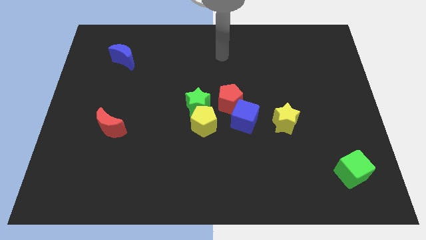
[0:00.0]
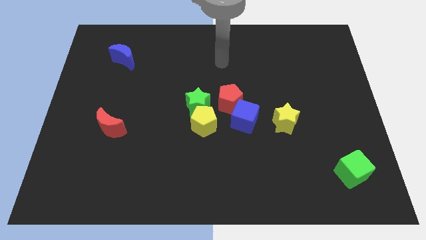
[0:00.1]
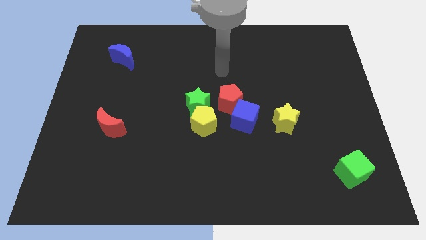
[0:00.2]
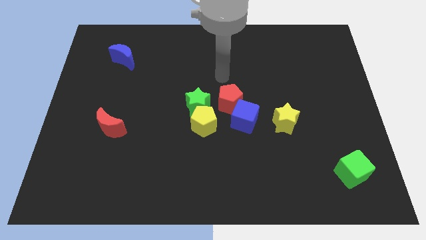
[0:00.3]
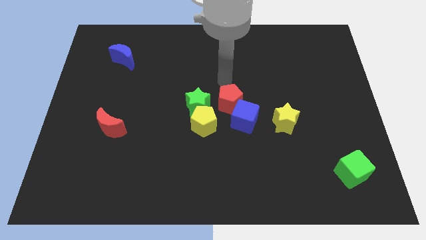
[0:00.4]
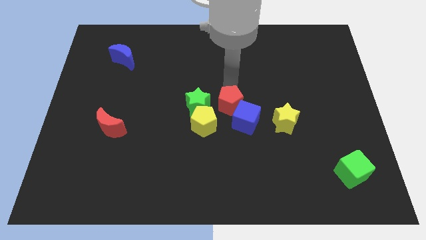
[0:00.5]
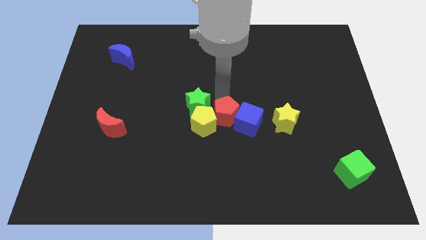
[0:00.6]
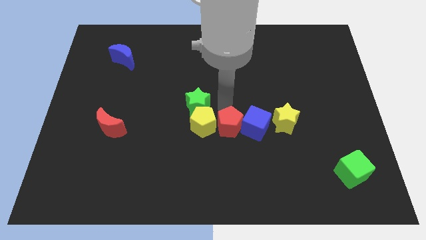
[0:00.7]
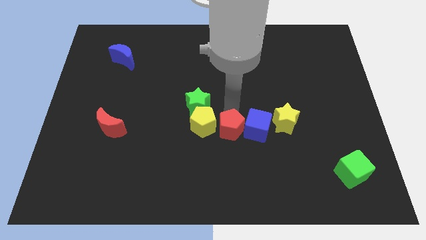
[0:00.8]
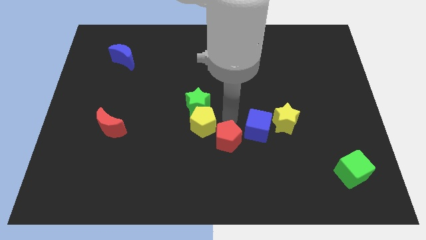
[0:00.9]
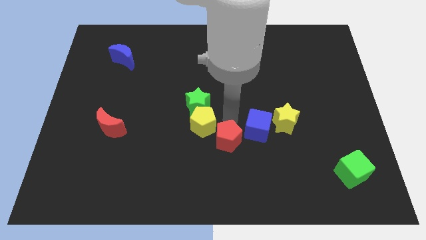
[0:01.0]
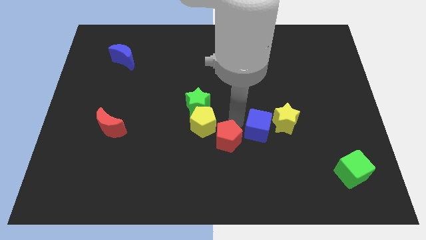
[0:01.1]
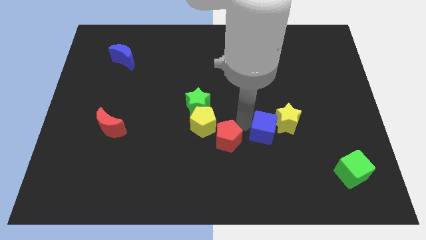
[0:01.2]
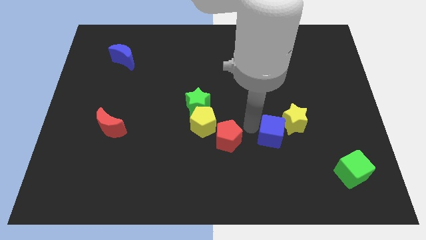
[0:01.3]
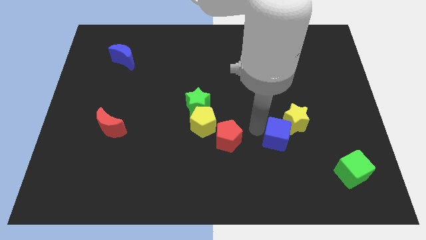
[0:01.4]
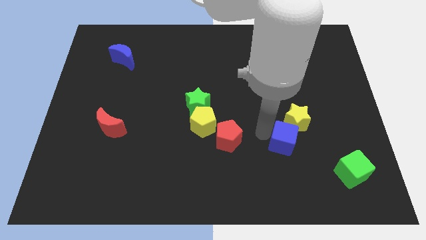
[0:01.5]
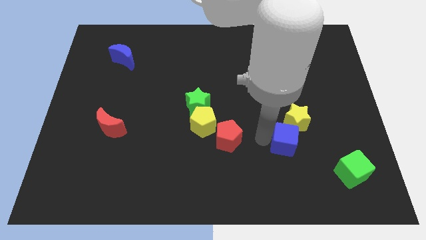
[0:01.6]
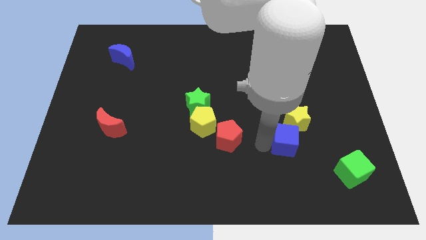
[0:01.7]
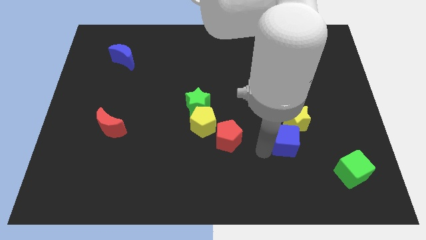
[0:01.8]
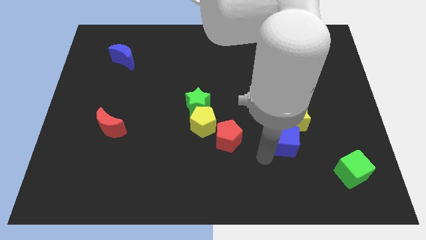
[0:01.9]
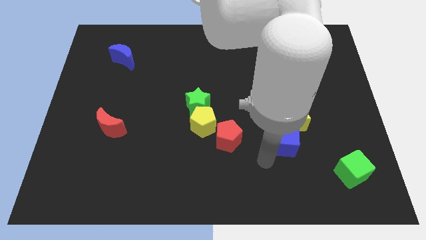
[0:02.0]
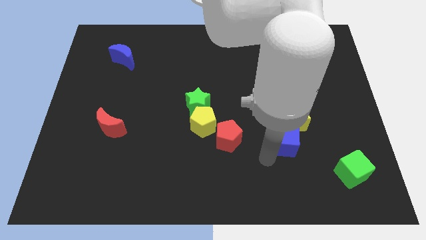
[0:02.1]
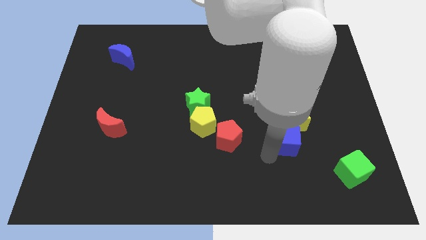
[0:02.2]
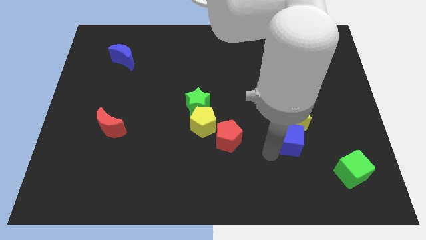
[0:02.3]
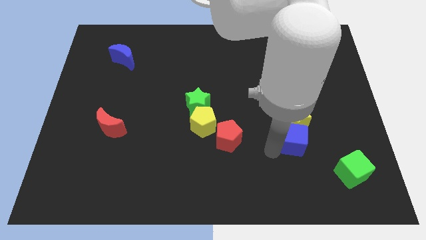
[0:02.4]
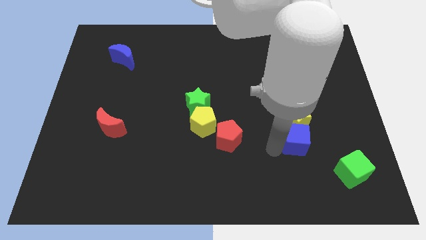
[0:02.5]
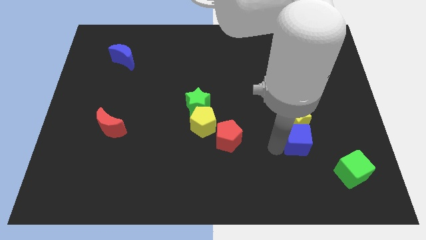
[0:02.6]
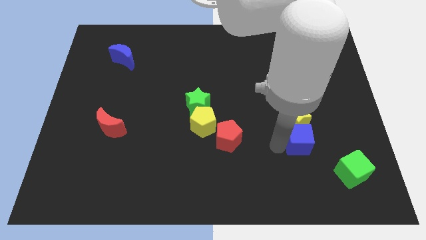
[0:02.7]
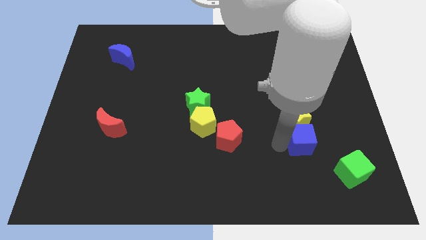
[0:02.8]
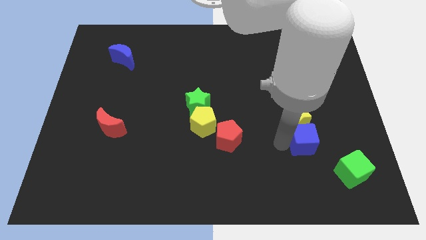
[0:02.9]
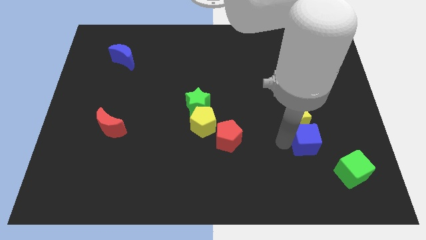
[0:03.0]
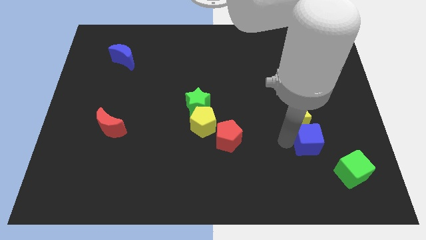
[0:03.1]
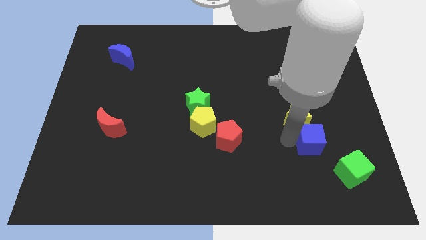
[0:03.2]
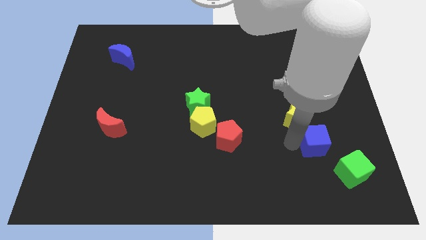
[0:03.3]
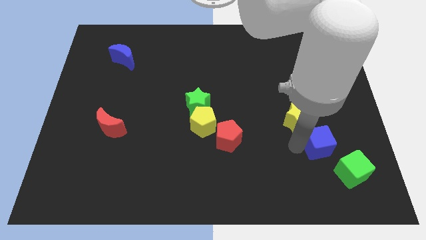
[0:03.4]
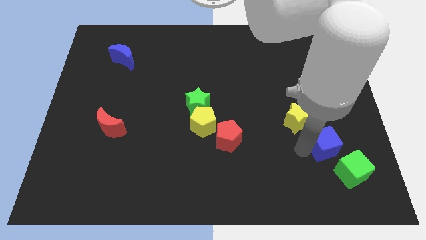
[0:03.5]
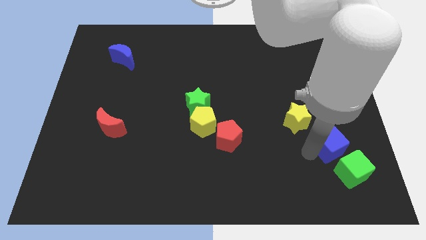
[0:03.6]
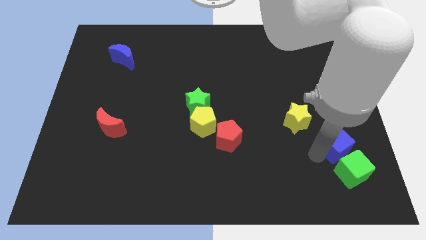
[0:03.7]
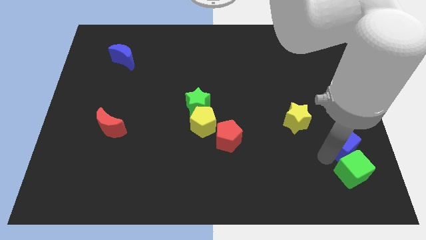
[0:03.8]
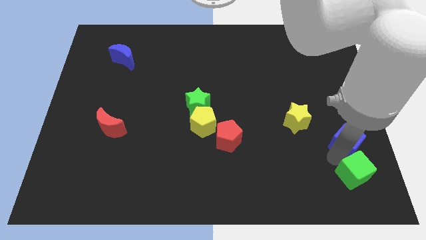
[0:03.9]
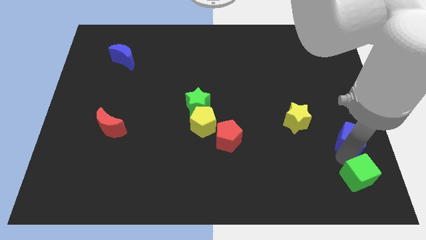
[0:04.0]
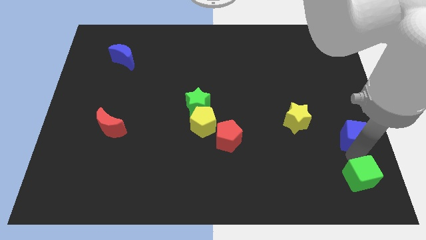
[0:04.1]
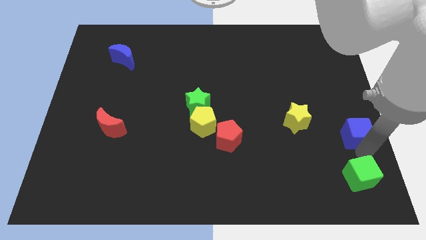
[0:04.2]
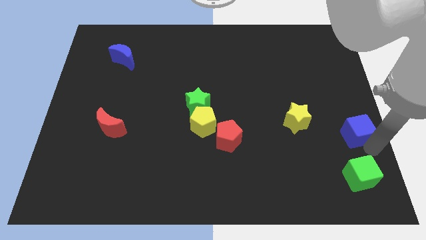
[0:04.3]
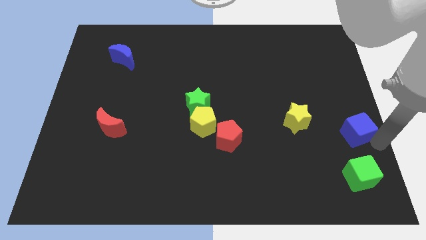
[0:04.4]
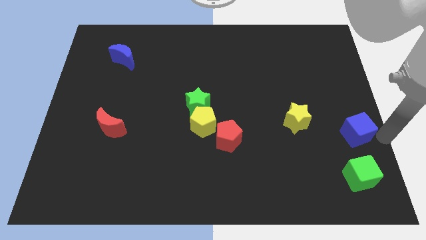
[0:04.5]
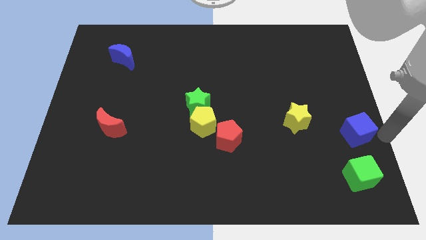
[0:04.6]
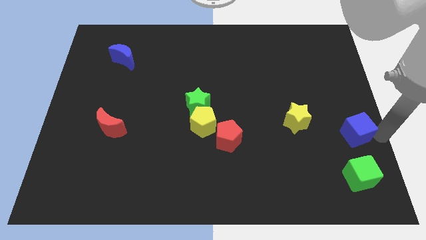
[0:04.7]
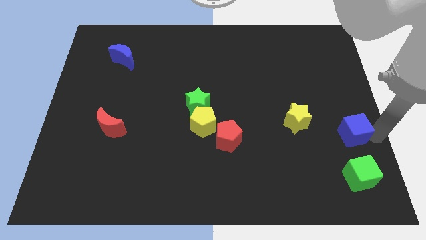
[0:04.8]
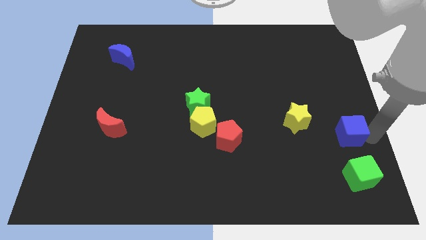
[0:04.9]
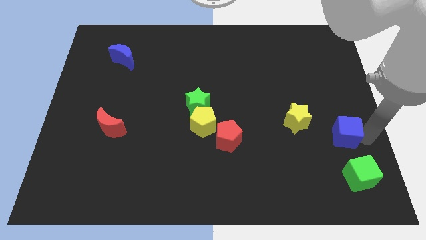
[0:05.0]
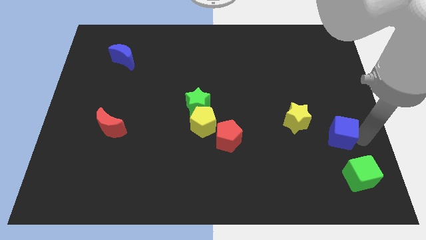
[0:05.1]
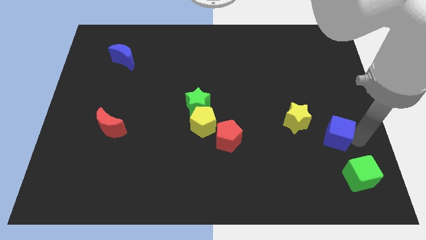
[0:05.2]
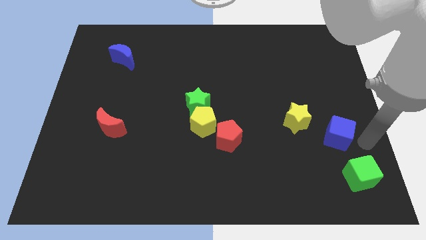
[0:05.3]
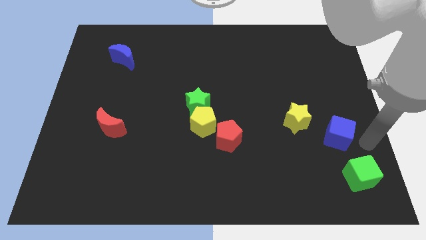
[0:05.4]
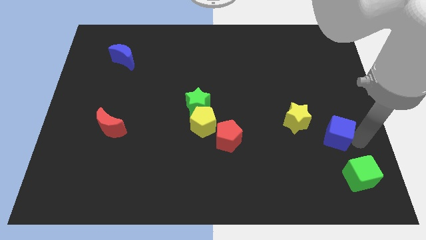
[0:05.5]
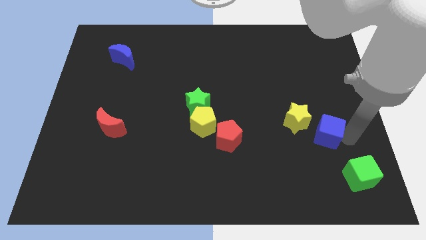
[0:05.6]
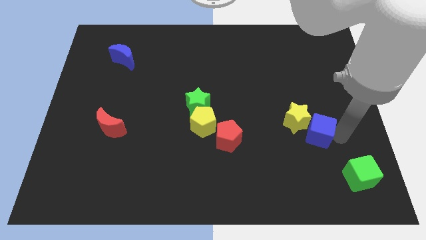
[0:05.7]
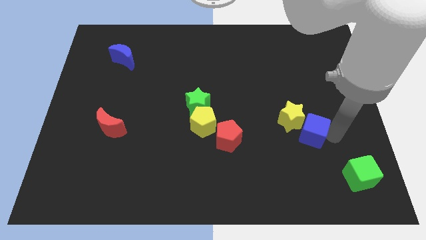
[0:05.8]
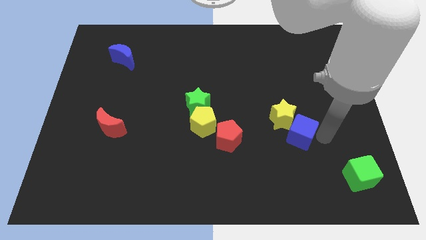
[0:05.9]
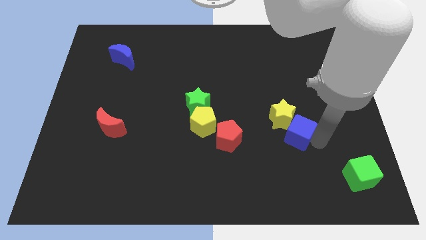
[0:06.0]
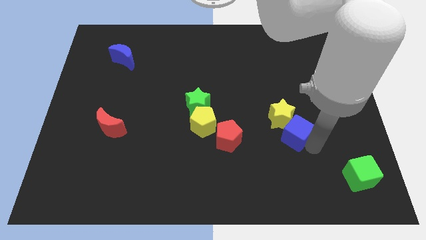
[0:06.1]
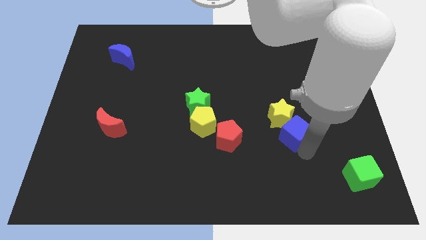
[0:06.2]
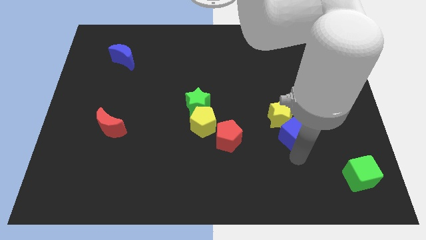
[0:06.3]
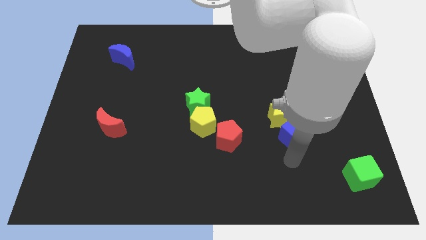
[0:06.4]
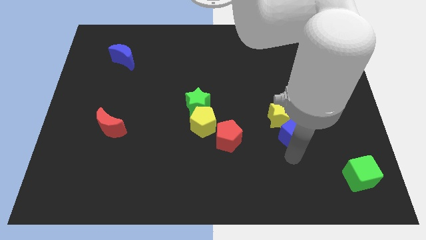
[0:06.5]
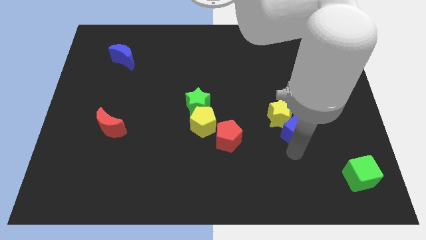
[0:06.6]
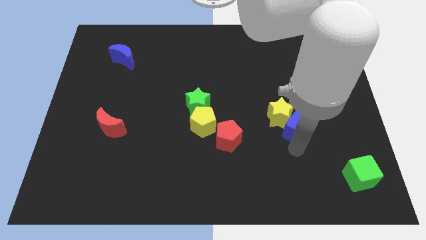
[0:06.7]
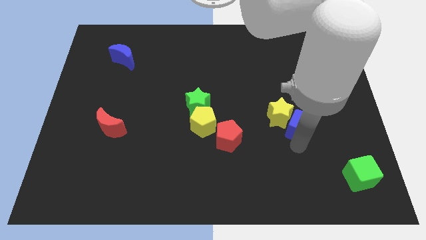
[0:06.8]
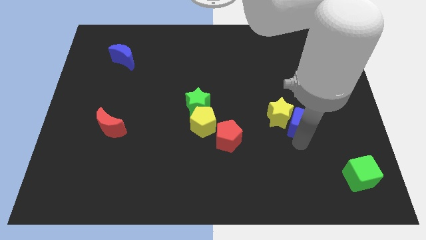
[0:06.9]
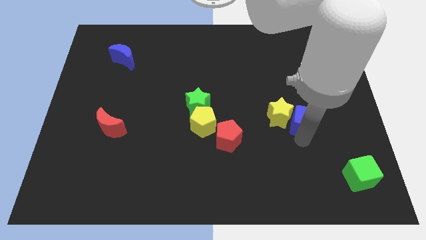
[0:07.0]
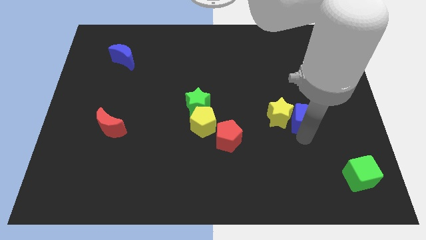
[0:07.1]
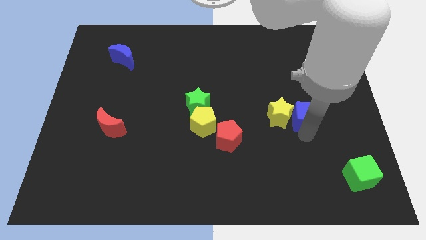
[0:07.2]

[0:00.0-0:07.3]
put the blue cube to the top right of the yellow star
